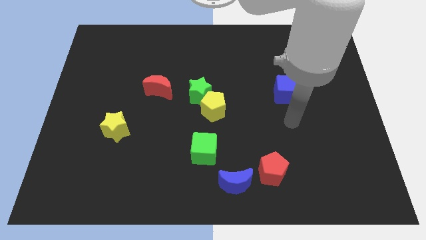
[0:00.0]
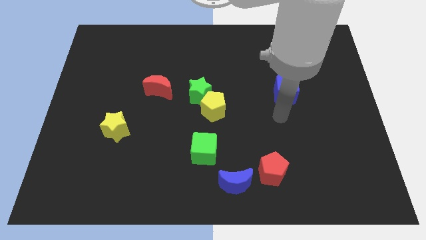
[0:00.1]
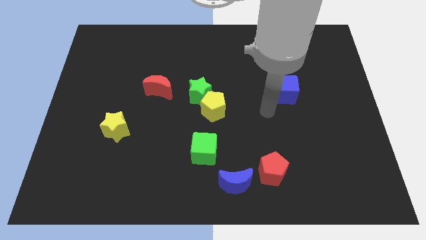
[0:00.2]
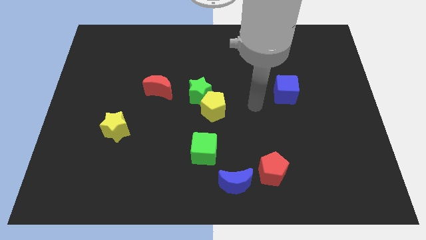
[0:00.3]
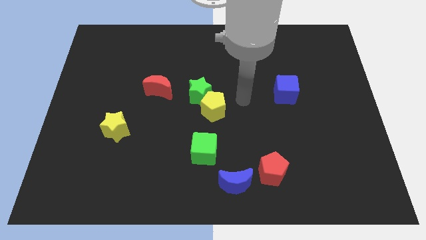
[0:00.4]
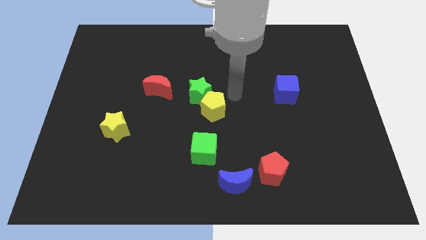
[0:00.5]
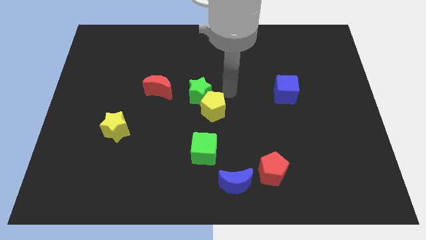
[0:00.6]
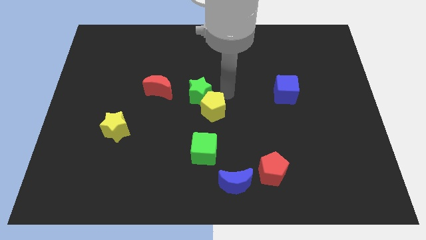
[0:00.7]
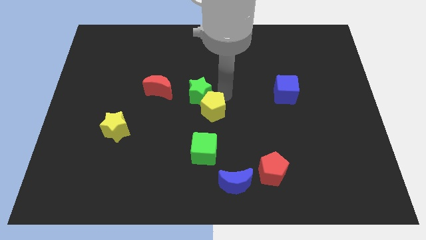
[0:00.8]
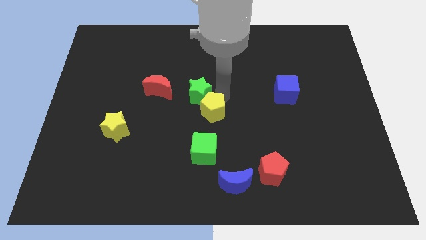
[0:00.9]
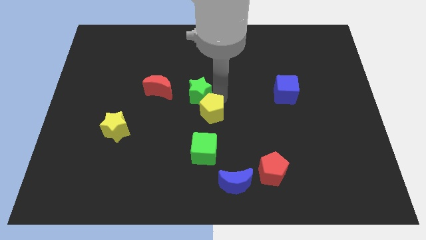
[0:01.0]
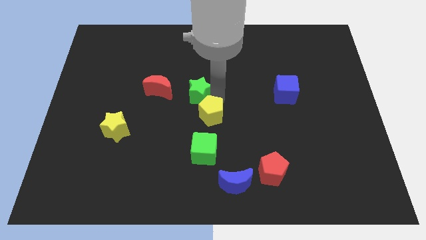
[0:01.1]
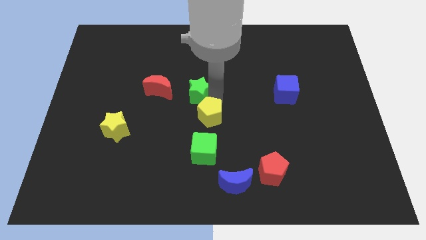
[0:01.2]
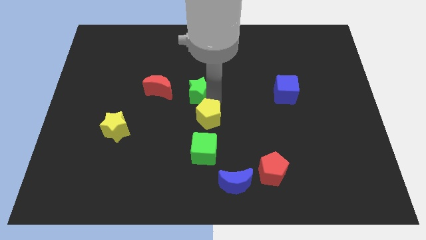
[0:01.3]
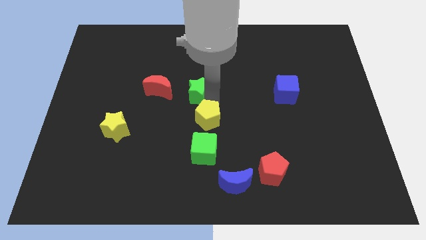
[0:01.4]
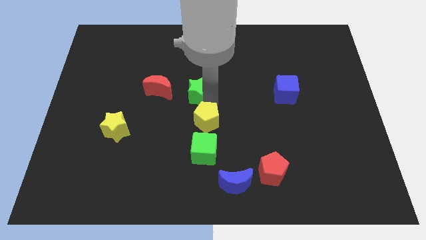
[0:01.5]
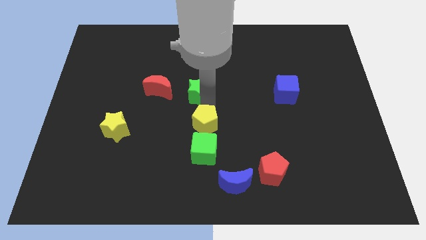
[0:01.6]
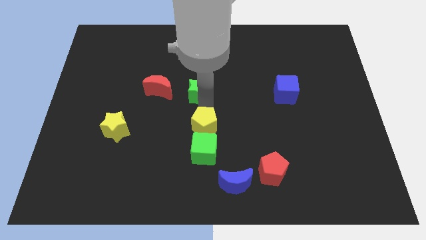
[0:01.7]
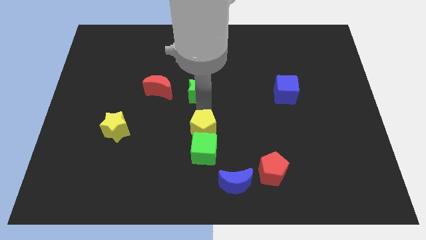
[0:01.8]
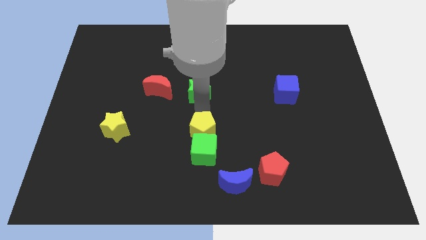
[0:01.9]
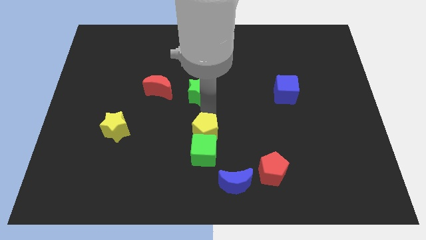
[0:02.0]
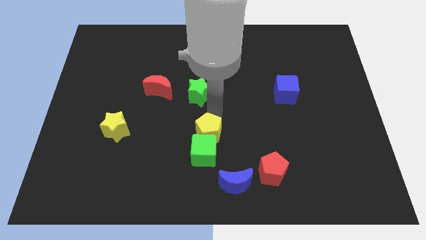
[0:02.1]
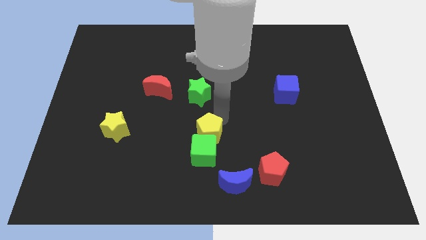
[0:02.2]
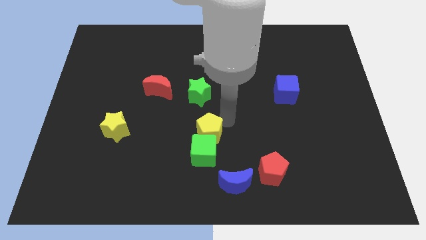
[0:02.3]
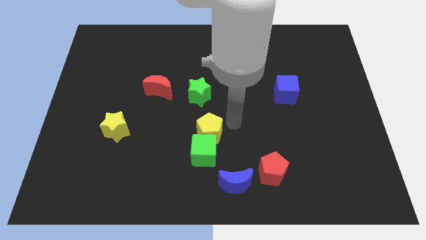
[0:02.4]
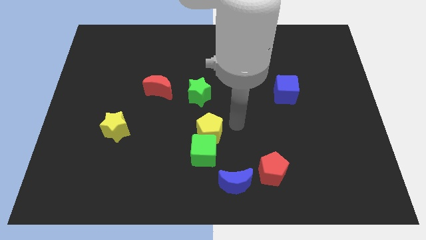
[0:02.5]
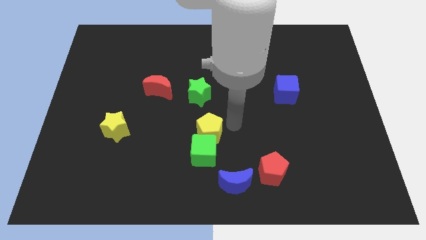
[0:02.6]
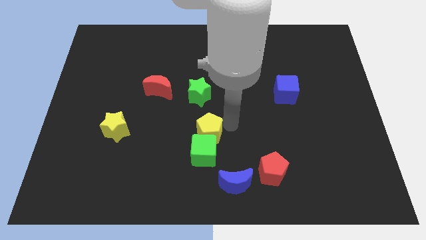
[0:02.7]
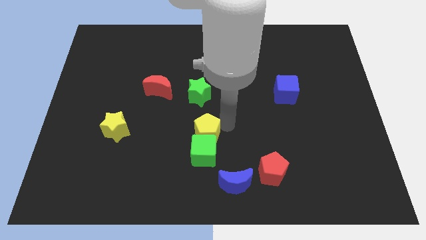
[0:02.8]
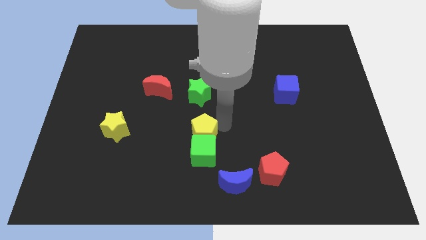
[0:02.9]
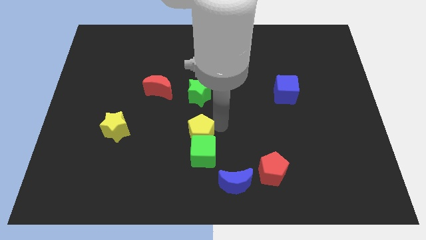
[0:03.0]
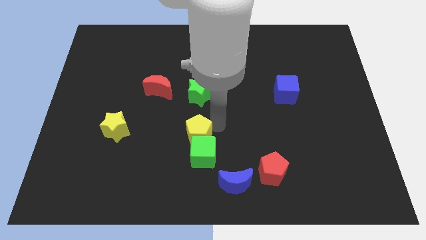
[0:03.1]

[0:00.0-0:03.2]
move the yellow pentagon diagonally downwards and left a bit

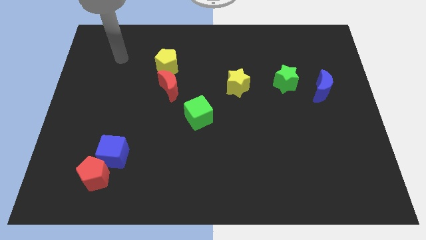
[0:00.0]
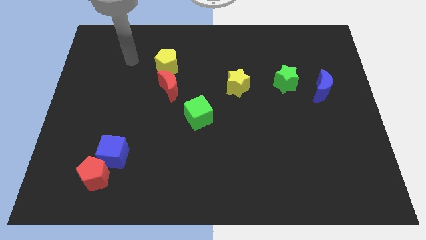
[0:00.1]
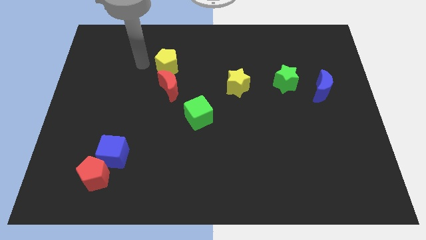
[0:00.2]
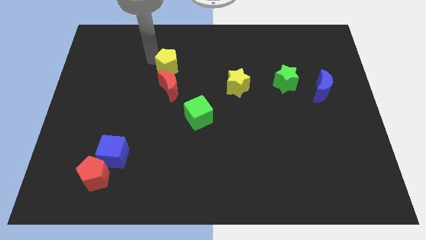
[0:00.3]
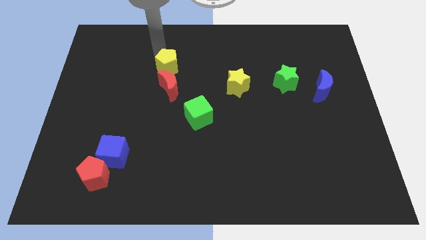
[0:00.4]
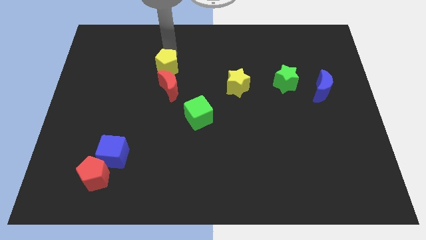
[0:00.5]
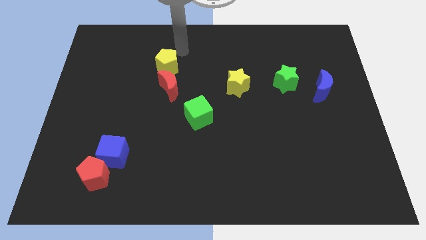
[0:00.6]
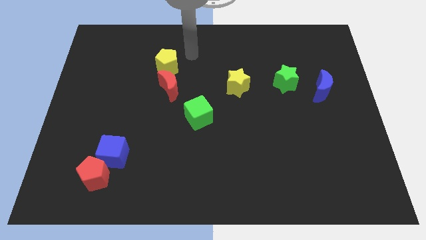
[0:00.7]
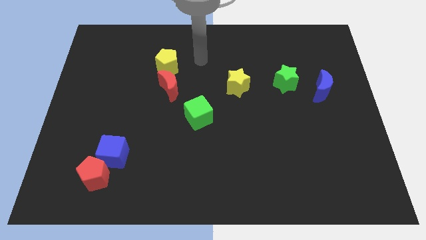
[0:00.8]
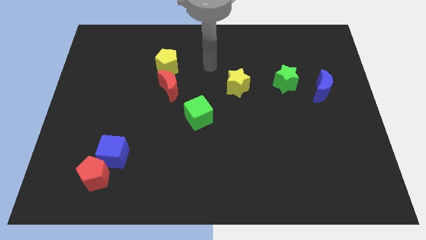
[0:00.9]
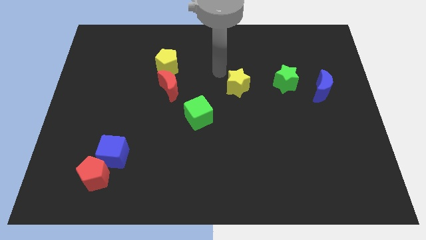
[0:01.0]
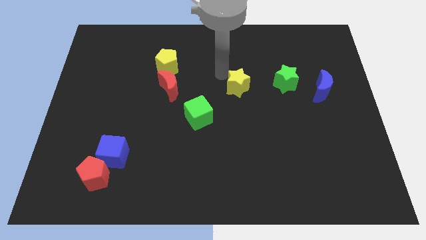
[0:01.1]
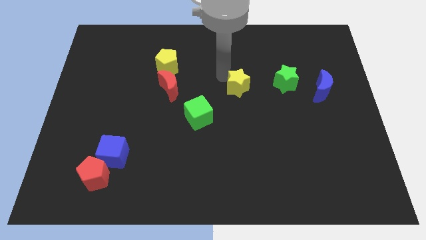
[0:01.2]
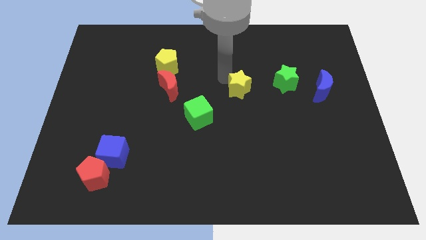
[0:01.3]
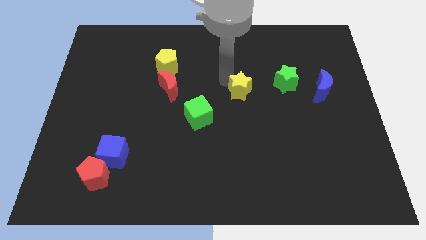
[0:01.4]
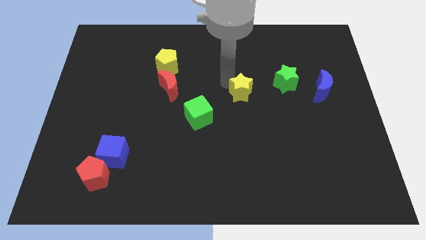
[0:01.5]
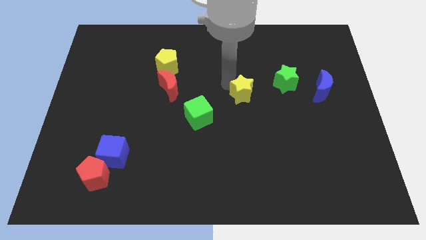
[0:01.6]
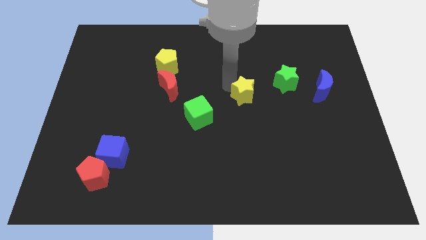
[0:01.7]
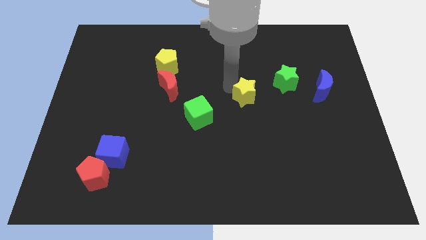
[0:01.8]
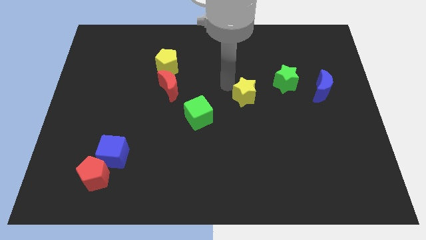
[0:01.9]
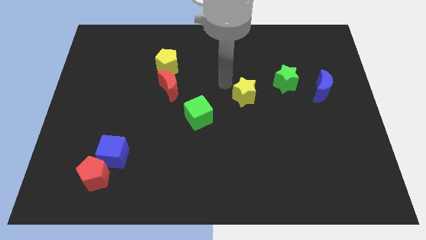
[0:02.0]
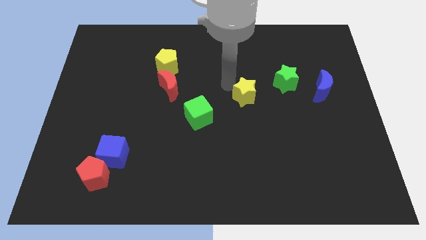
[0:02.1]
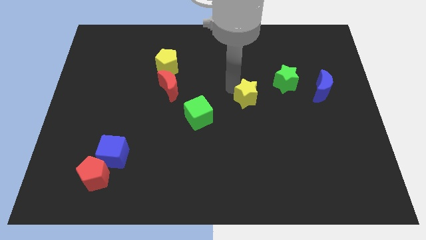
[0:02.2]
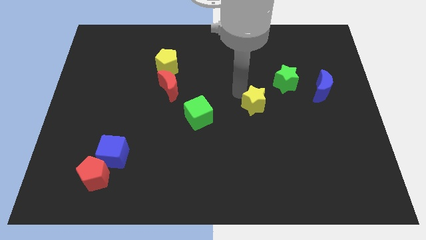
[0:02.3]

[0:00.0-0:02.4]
push the yellow star downwards and then right a little

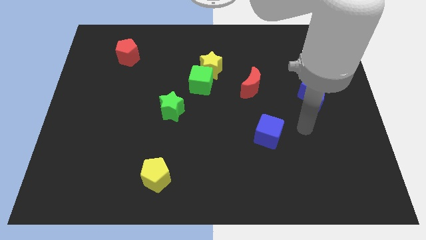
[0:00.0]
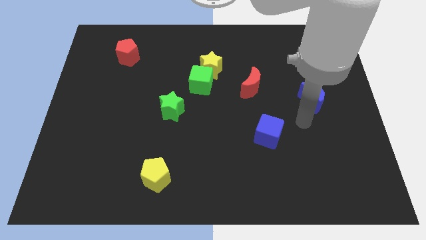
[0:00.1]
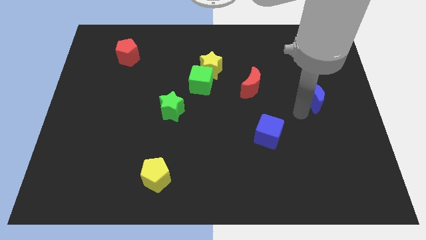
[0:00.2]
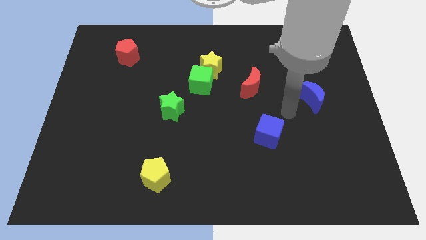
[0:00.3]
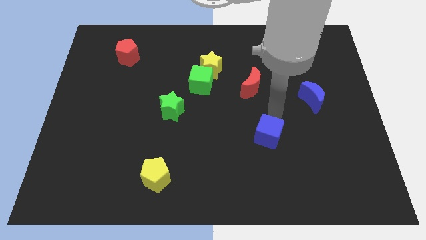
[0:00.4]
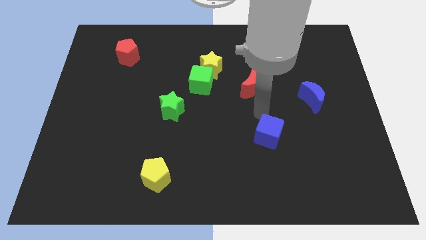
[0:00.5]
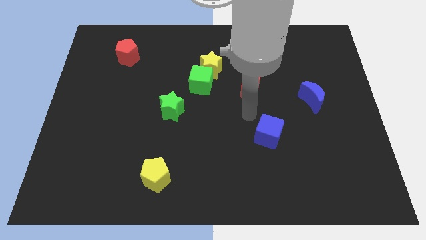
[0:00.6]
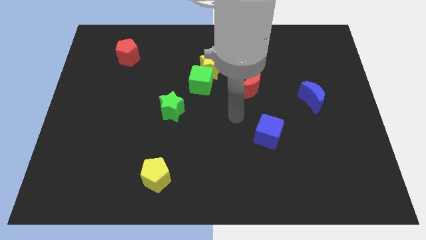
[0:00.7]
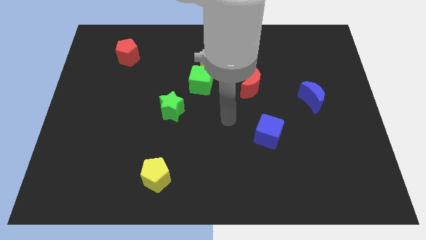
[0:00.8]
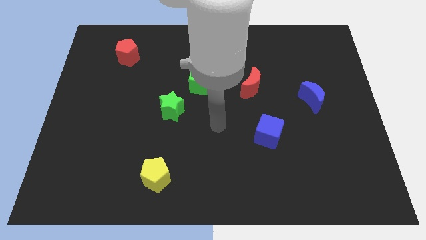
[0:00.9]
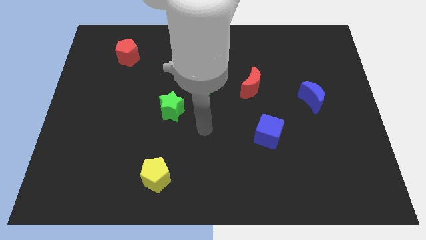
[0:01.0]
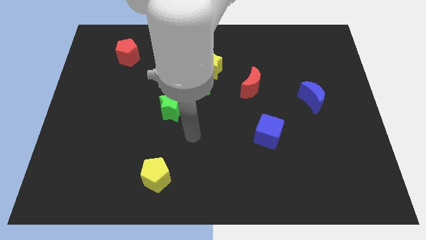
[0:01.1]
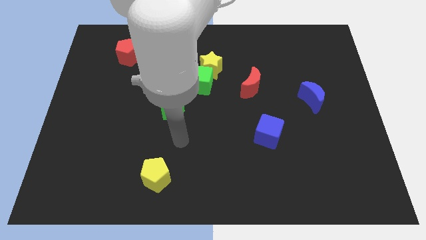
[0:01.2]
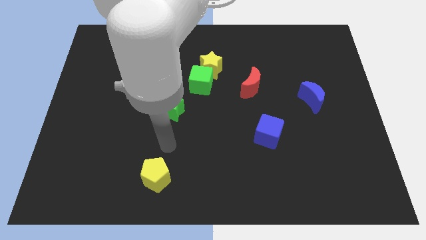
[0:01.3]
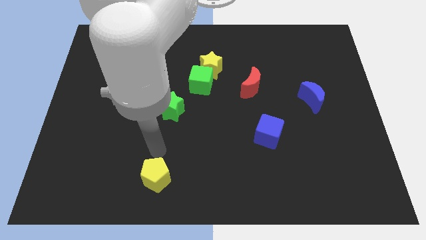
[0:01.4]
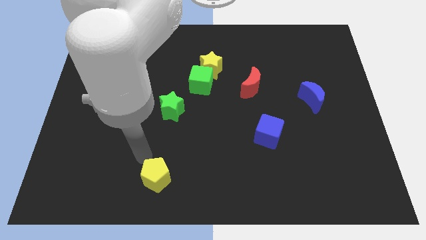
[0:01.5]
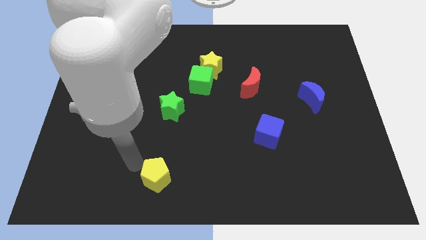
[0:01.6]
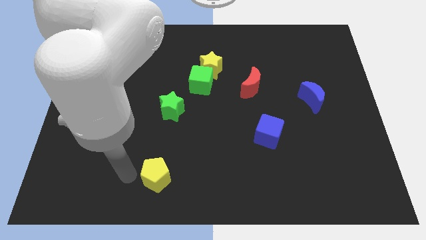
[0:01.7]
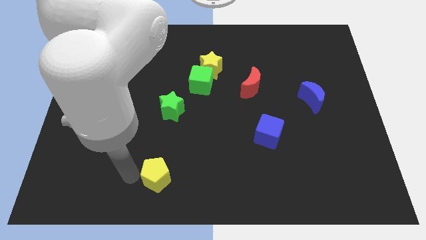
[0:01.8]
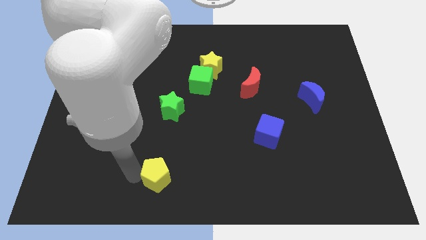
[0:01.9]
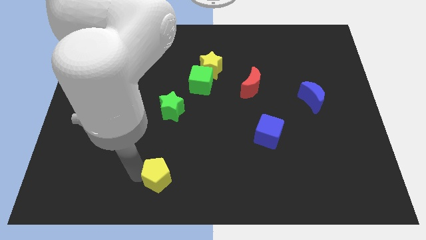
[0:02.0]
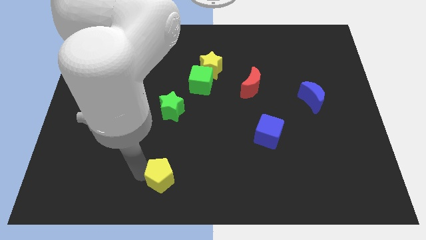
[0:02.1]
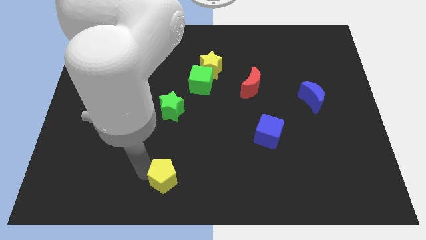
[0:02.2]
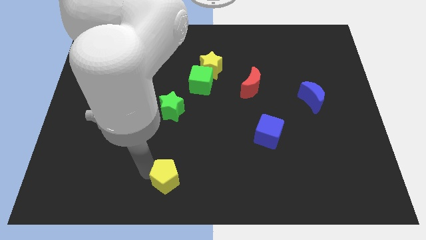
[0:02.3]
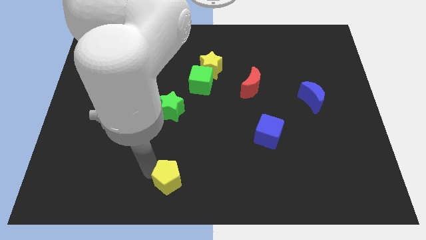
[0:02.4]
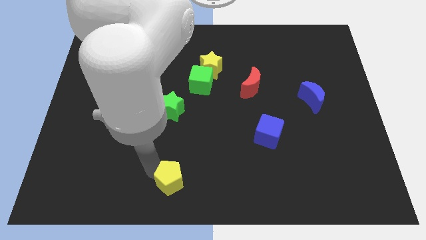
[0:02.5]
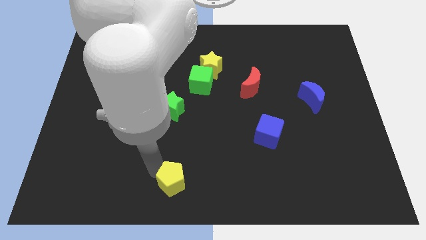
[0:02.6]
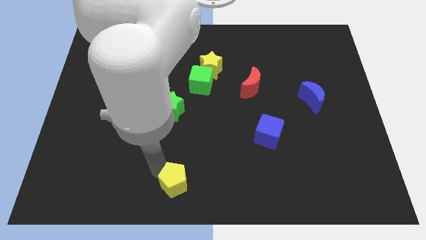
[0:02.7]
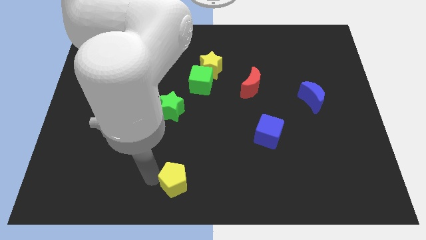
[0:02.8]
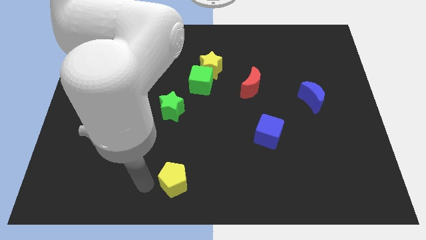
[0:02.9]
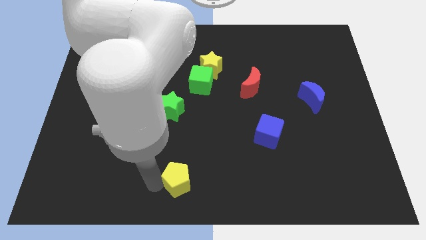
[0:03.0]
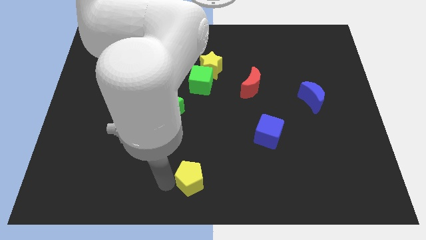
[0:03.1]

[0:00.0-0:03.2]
move the yellow pentagon a bit to the right
